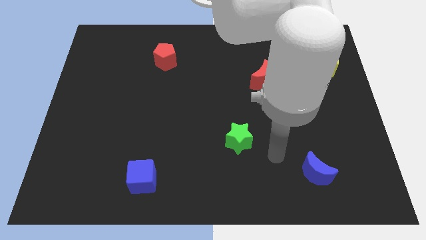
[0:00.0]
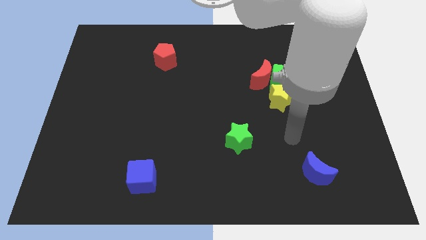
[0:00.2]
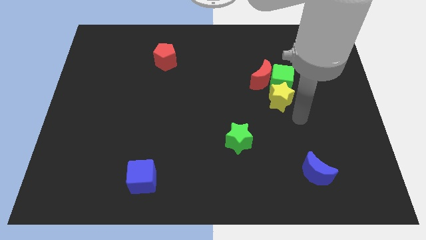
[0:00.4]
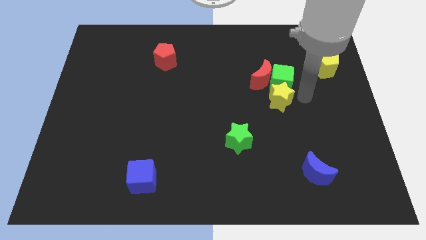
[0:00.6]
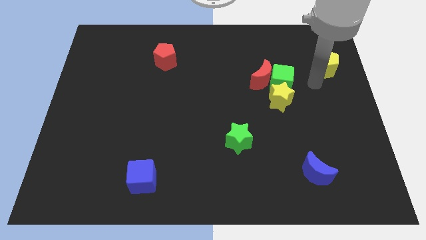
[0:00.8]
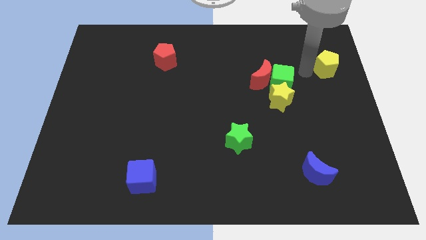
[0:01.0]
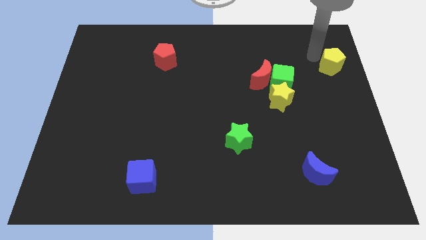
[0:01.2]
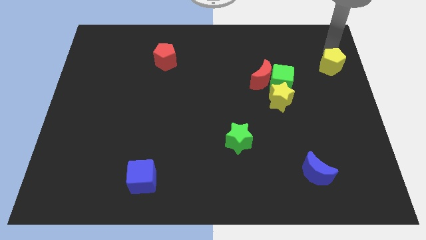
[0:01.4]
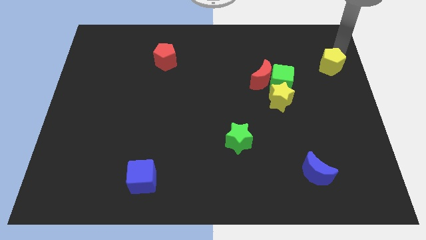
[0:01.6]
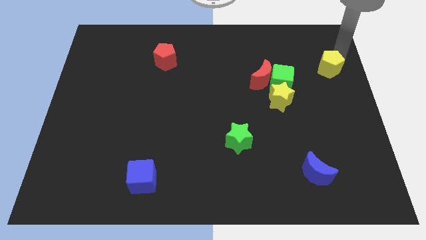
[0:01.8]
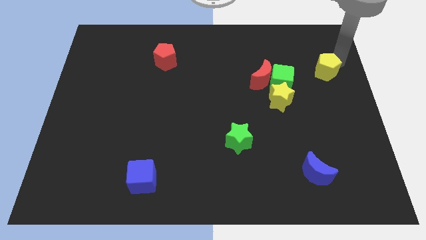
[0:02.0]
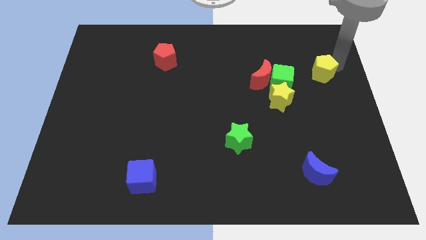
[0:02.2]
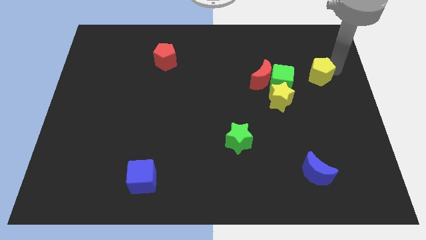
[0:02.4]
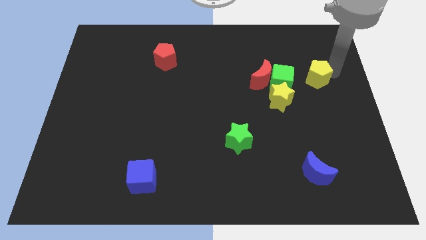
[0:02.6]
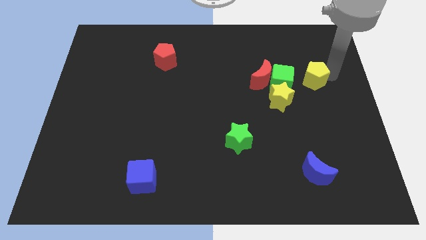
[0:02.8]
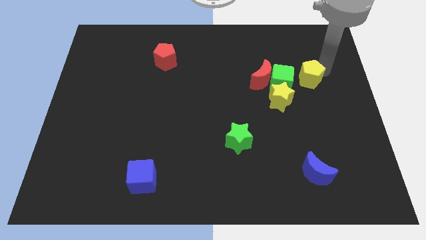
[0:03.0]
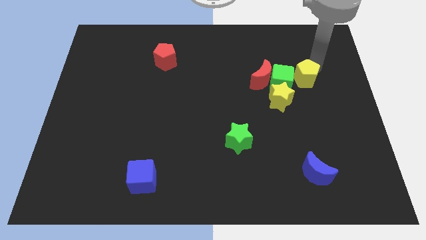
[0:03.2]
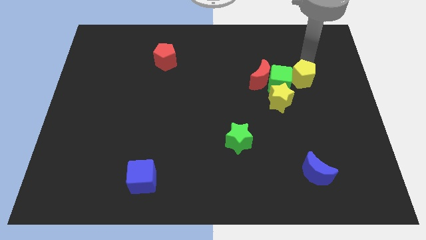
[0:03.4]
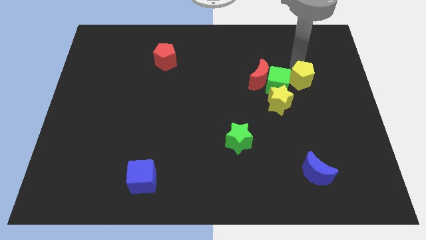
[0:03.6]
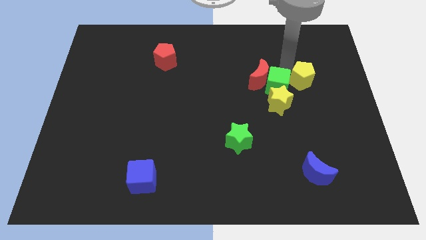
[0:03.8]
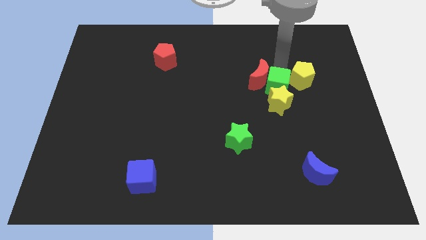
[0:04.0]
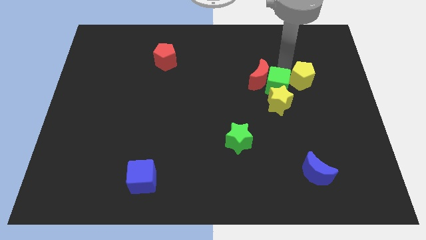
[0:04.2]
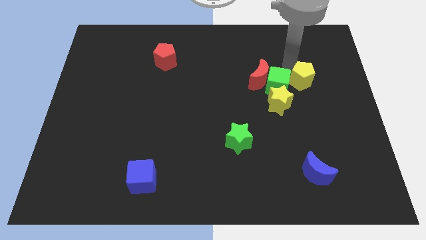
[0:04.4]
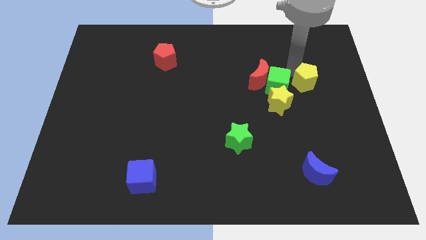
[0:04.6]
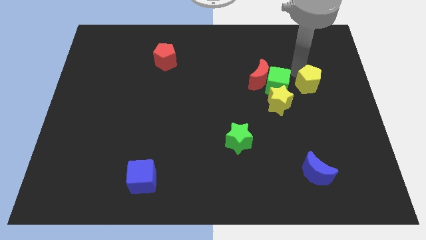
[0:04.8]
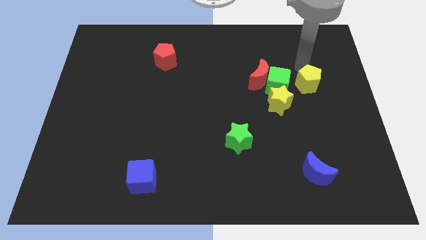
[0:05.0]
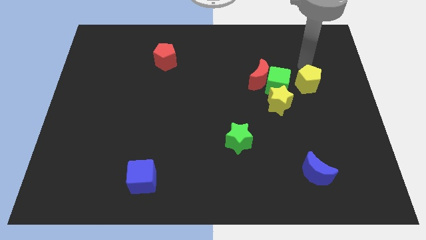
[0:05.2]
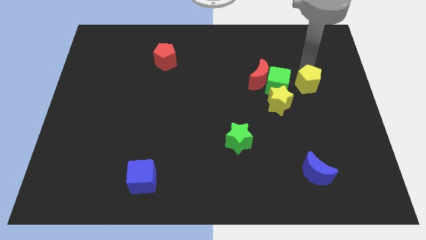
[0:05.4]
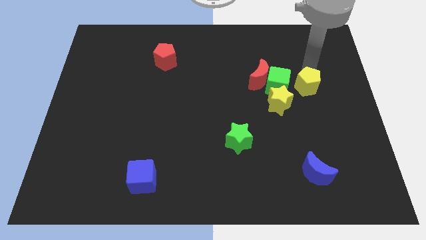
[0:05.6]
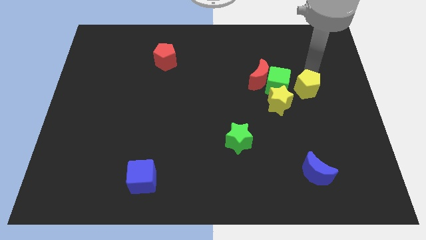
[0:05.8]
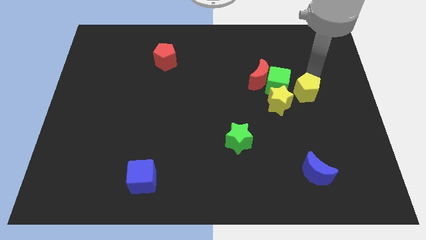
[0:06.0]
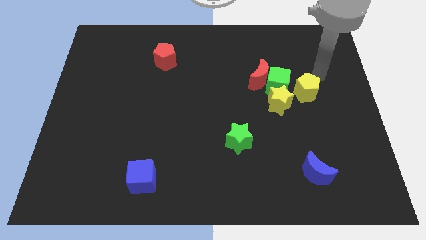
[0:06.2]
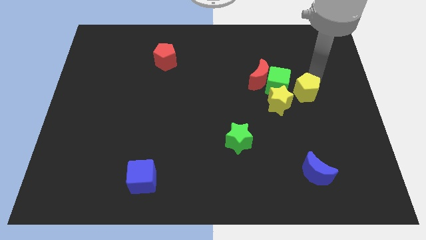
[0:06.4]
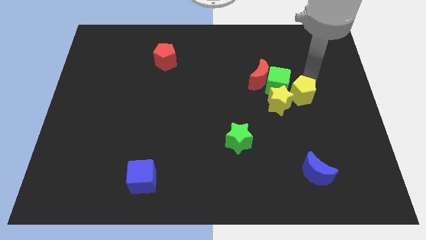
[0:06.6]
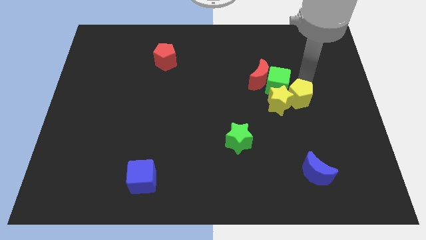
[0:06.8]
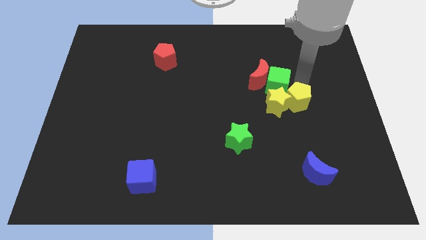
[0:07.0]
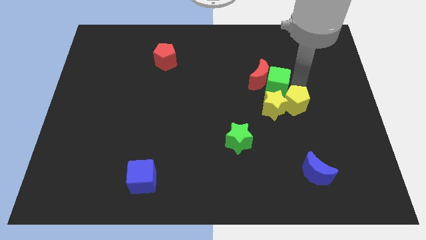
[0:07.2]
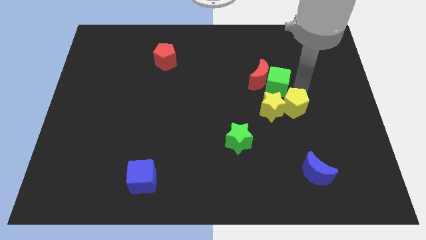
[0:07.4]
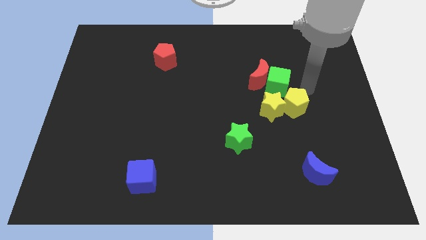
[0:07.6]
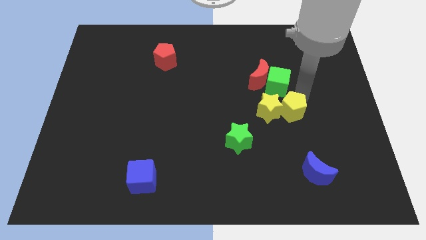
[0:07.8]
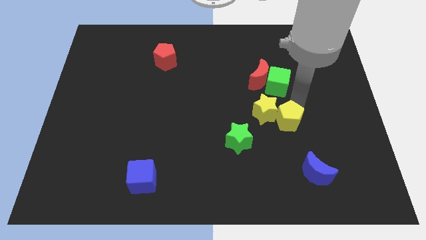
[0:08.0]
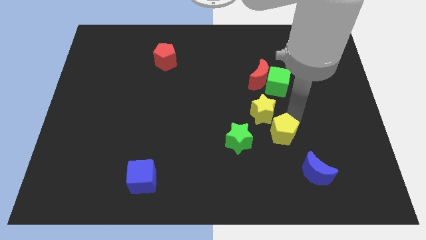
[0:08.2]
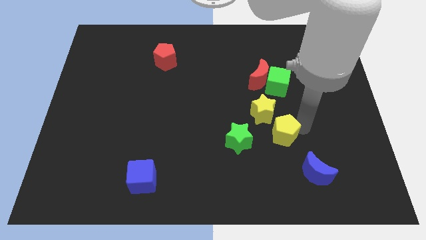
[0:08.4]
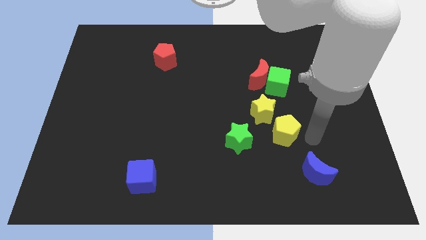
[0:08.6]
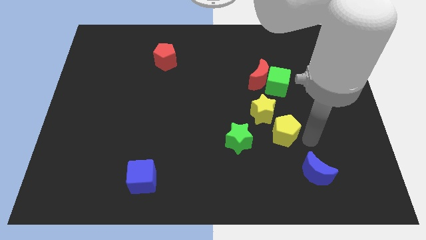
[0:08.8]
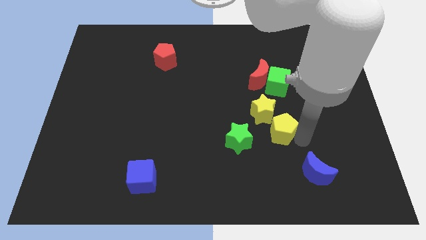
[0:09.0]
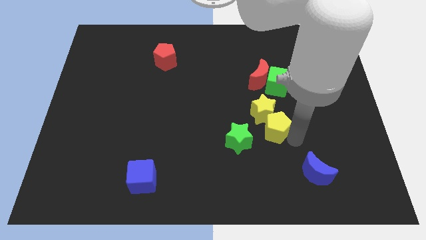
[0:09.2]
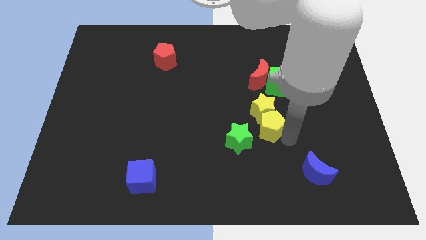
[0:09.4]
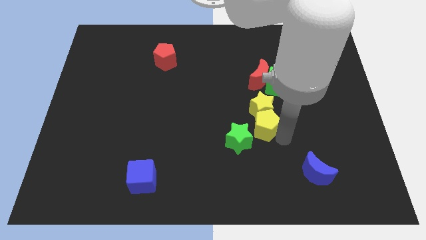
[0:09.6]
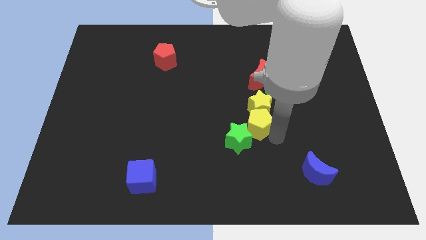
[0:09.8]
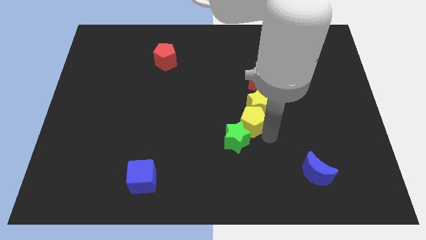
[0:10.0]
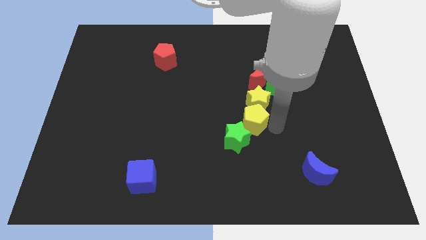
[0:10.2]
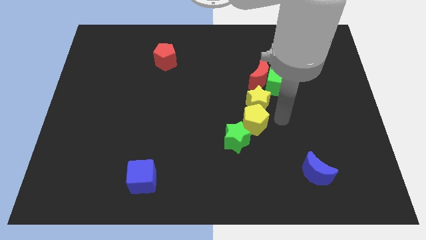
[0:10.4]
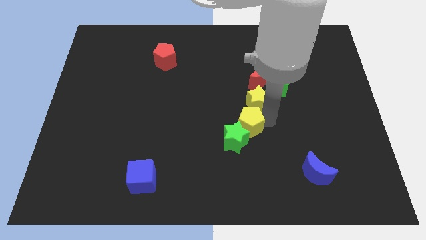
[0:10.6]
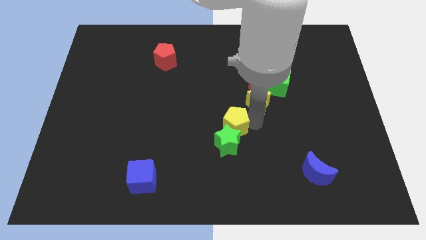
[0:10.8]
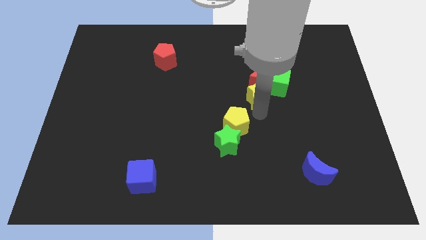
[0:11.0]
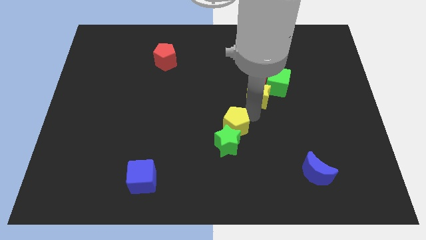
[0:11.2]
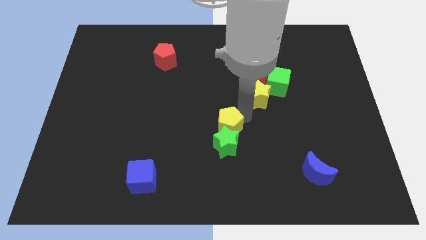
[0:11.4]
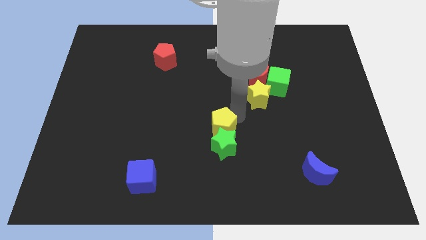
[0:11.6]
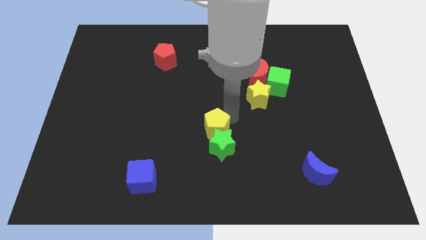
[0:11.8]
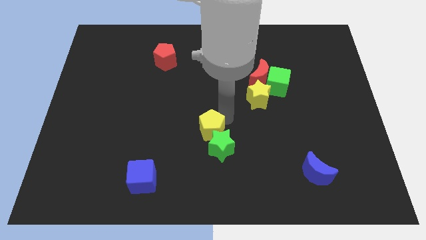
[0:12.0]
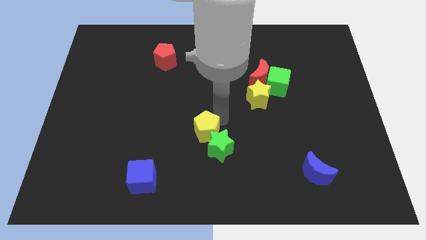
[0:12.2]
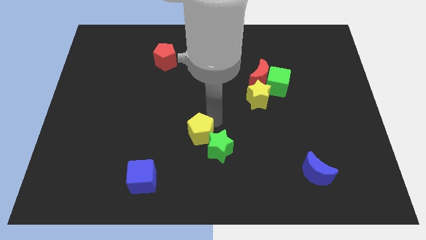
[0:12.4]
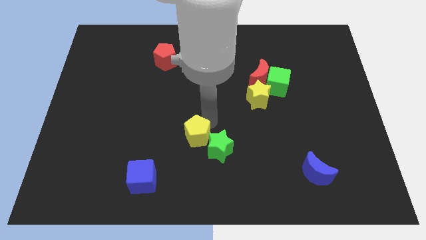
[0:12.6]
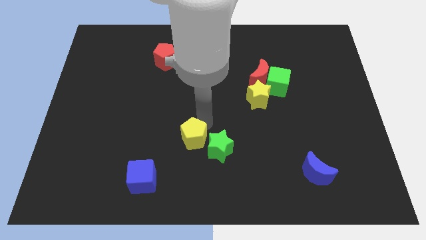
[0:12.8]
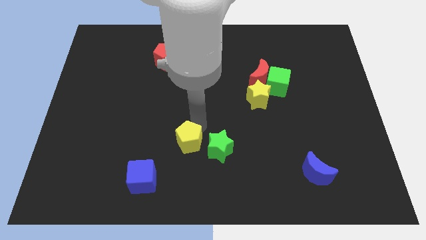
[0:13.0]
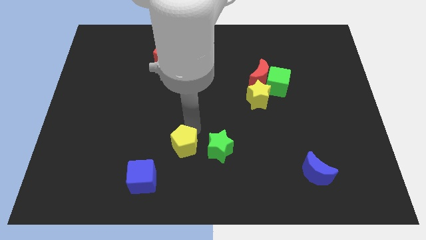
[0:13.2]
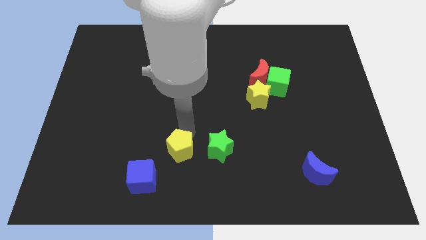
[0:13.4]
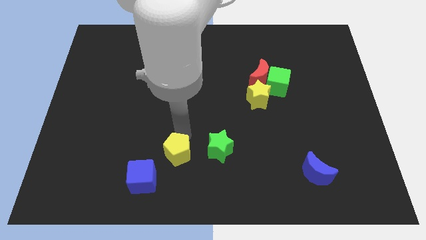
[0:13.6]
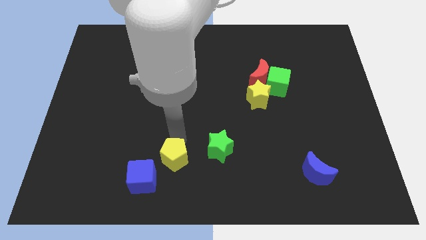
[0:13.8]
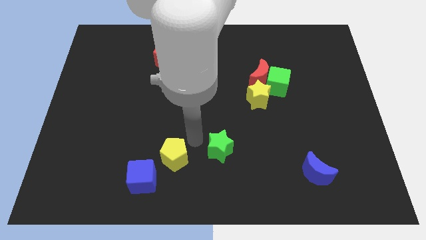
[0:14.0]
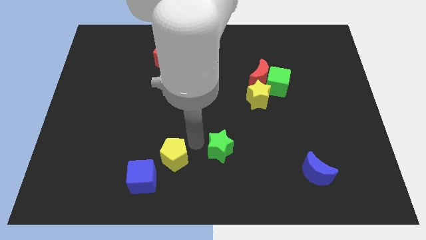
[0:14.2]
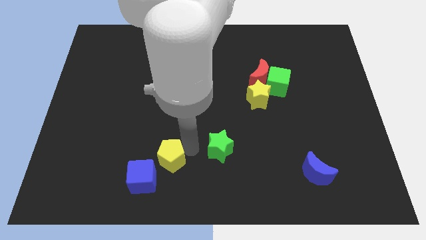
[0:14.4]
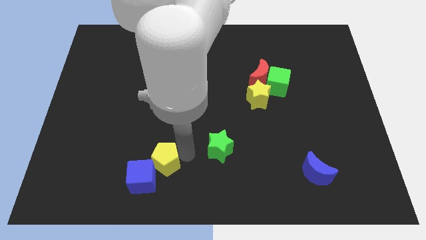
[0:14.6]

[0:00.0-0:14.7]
slide the yellow pentagon towards the blue cube
